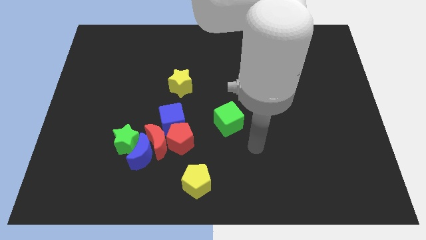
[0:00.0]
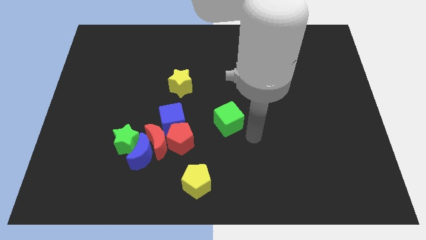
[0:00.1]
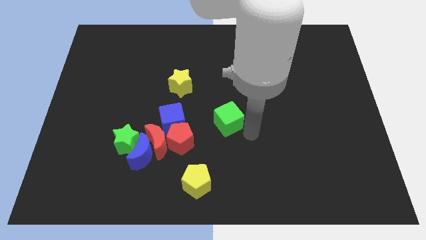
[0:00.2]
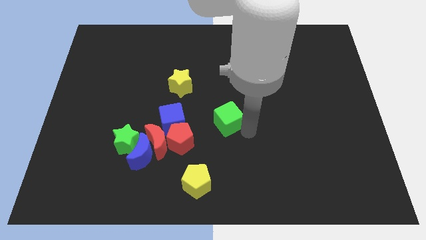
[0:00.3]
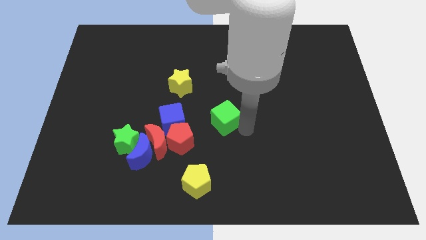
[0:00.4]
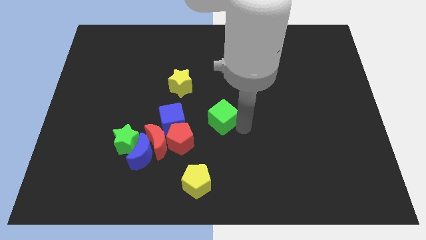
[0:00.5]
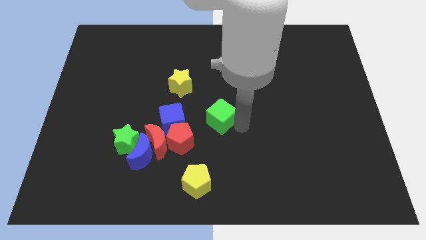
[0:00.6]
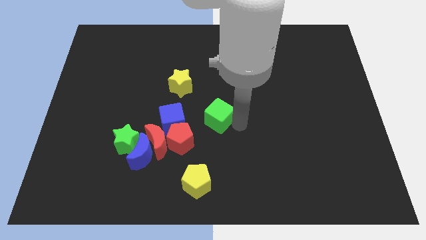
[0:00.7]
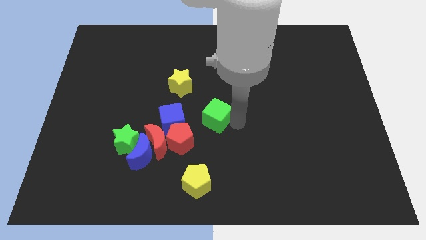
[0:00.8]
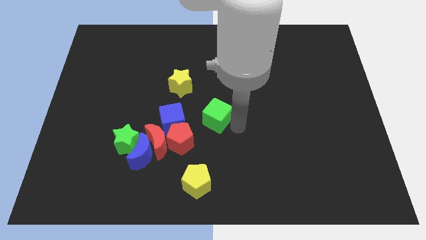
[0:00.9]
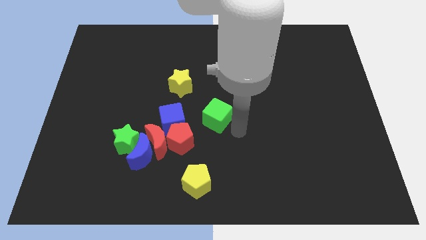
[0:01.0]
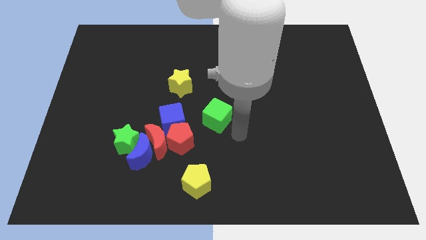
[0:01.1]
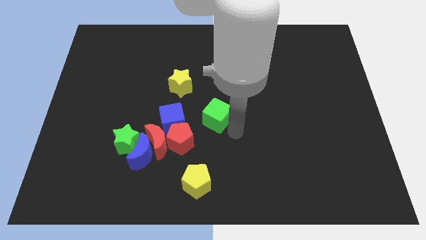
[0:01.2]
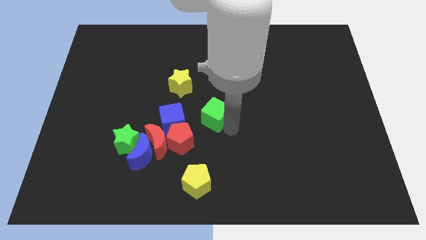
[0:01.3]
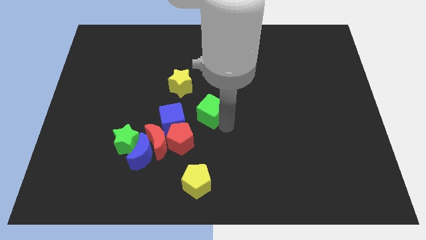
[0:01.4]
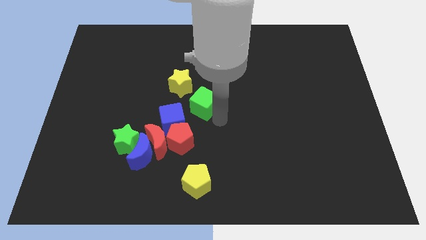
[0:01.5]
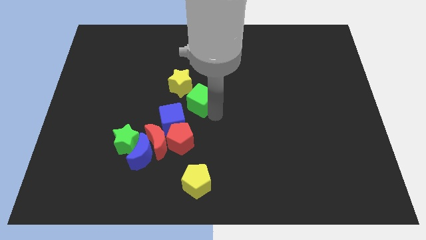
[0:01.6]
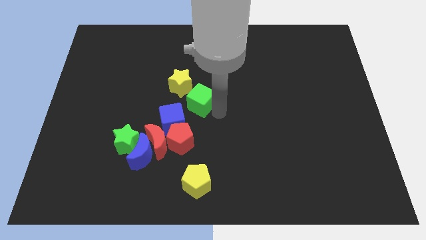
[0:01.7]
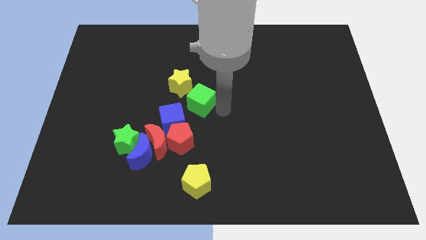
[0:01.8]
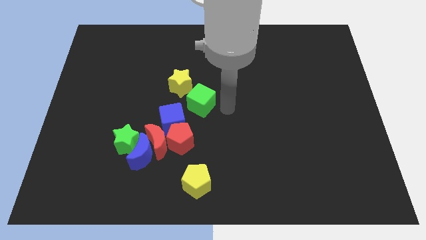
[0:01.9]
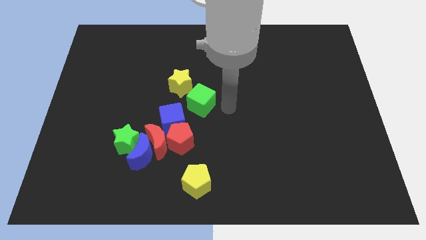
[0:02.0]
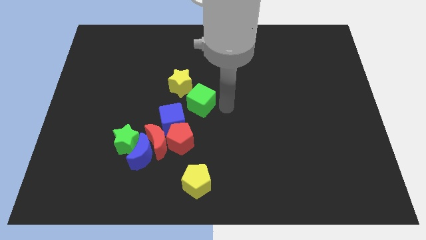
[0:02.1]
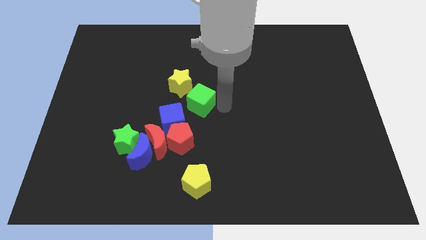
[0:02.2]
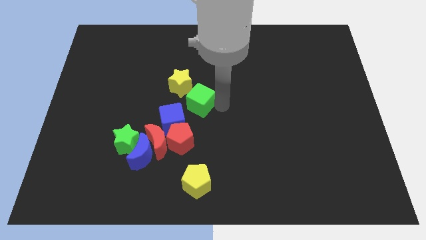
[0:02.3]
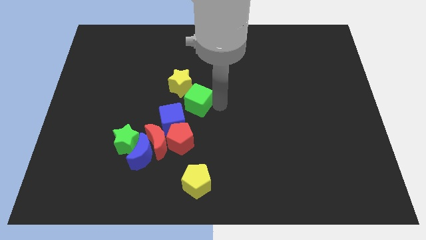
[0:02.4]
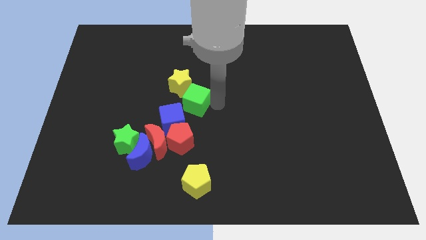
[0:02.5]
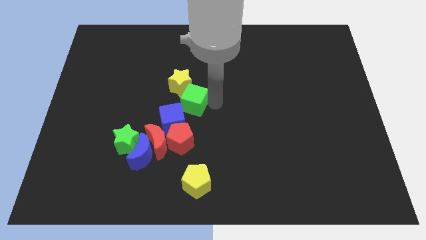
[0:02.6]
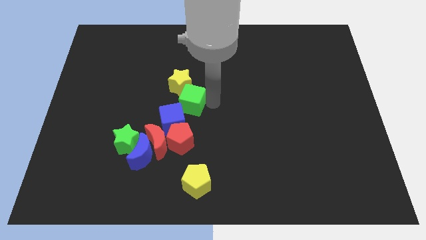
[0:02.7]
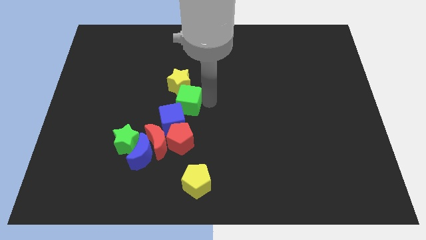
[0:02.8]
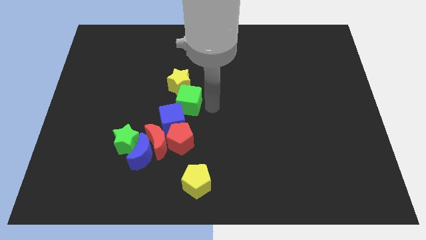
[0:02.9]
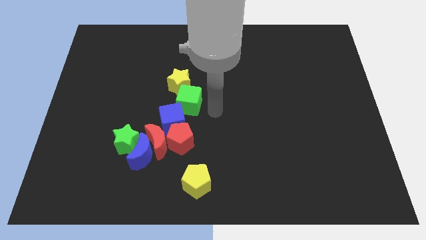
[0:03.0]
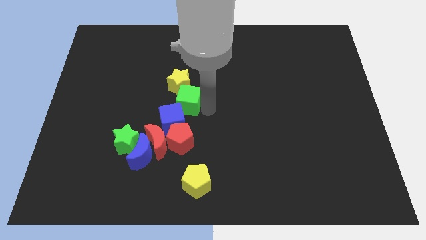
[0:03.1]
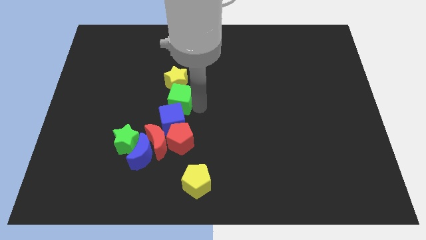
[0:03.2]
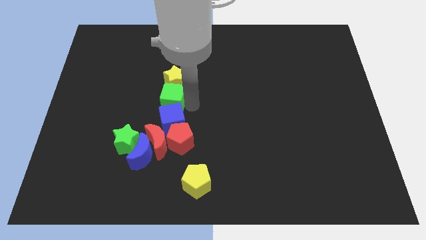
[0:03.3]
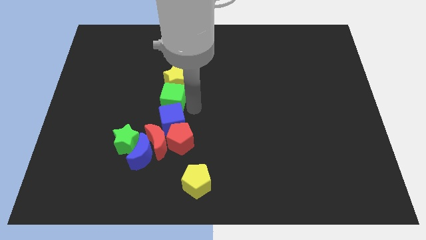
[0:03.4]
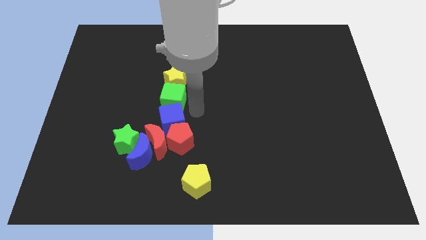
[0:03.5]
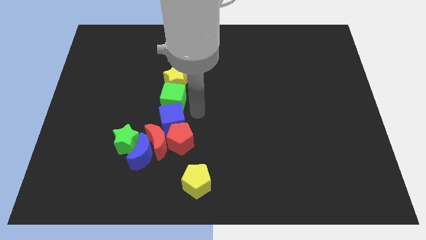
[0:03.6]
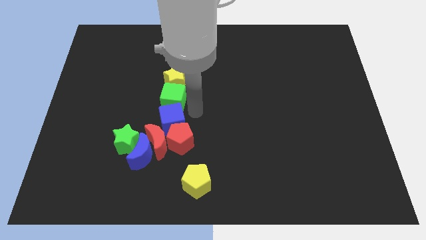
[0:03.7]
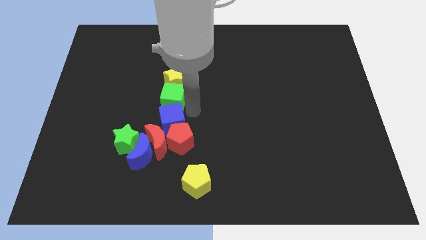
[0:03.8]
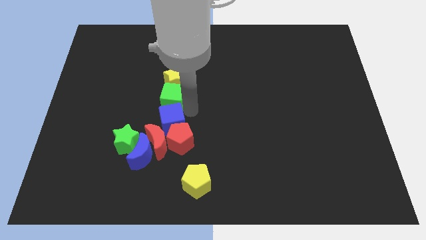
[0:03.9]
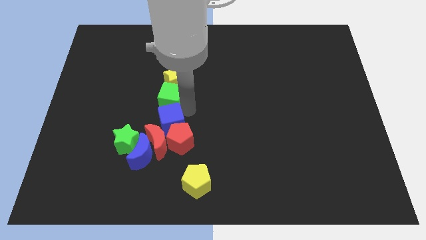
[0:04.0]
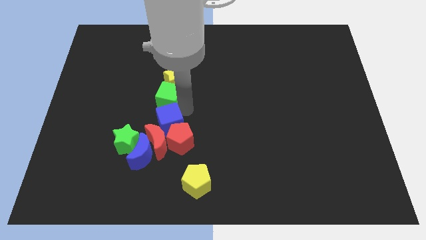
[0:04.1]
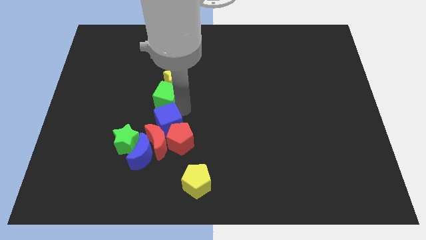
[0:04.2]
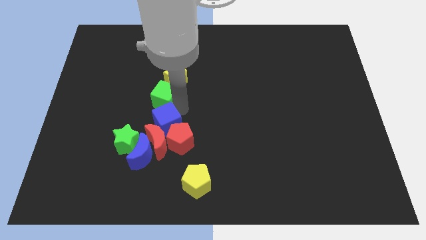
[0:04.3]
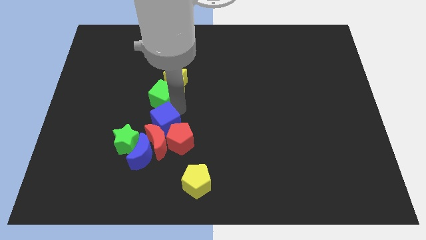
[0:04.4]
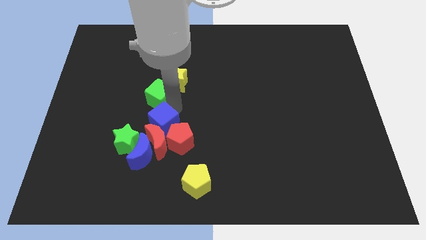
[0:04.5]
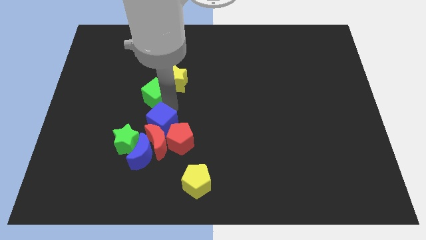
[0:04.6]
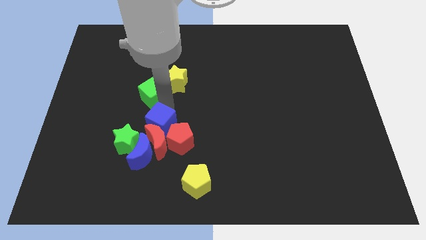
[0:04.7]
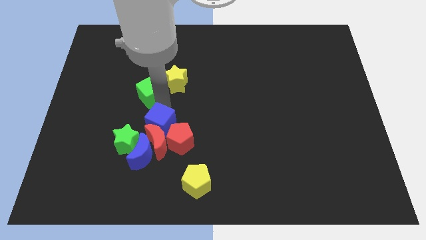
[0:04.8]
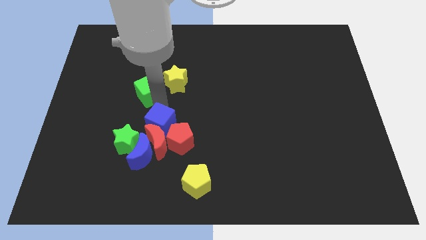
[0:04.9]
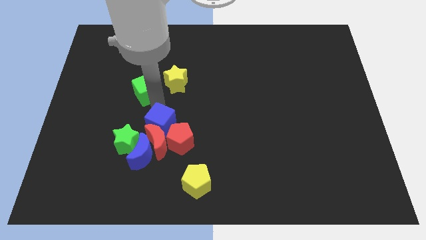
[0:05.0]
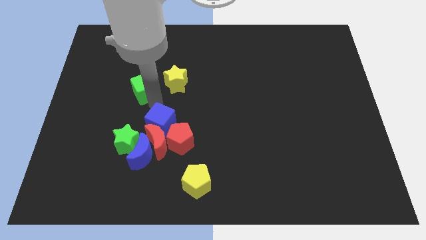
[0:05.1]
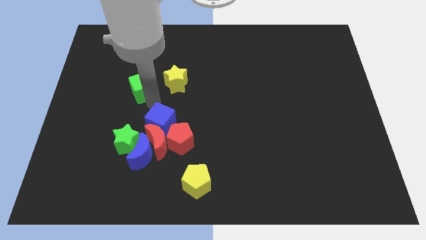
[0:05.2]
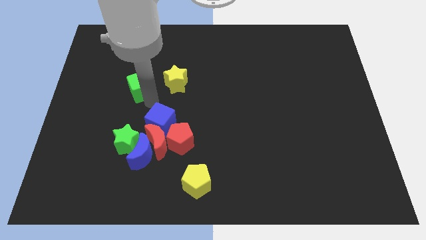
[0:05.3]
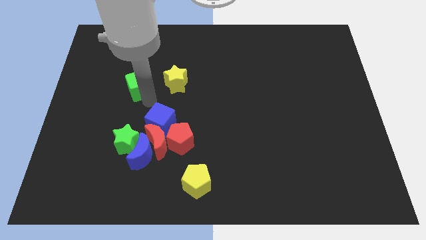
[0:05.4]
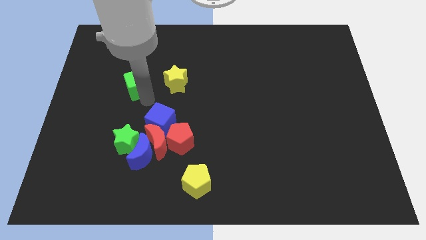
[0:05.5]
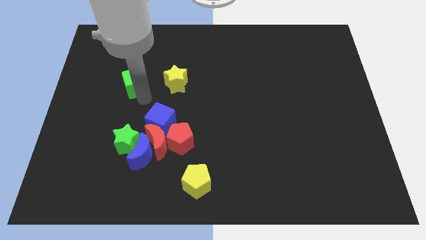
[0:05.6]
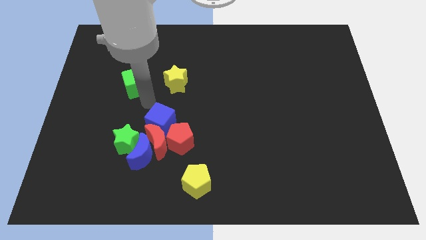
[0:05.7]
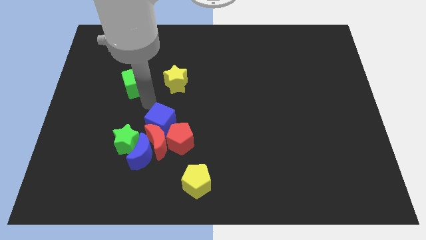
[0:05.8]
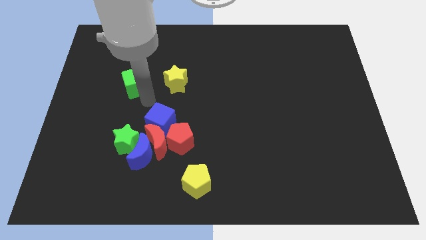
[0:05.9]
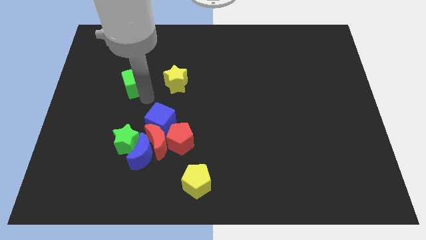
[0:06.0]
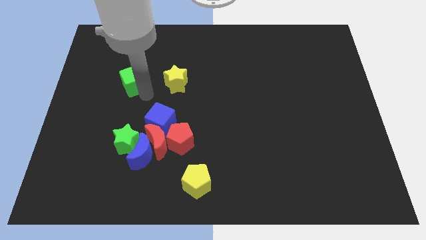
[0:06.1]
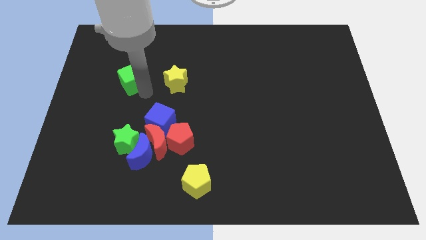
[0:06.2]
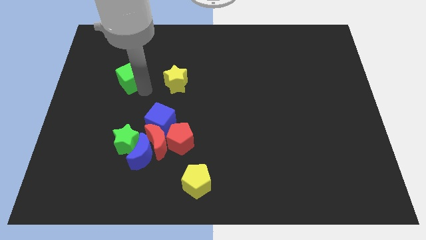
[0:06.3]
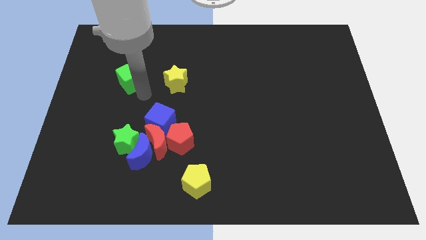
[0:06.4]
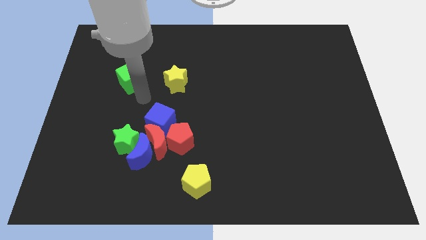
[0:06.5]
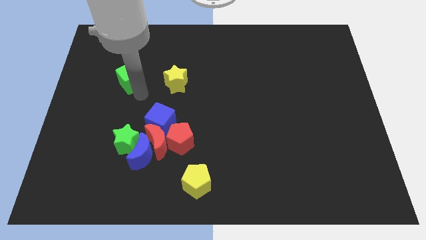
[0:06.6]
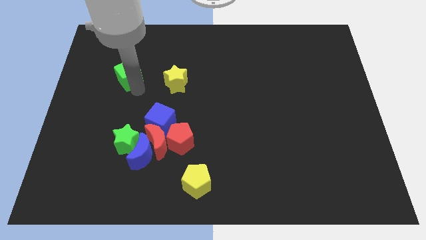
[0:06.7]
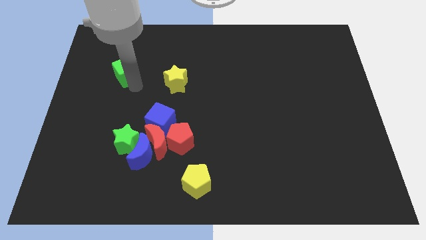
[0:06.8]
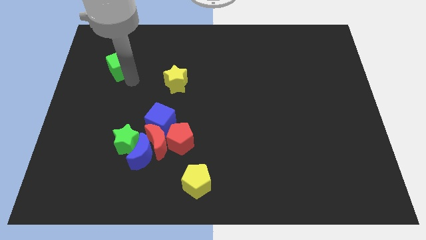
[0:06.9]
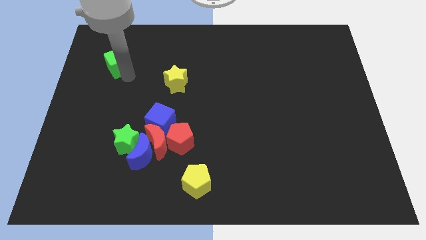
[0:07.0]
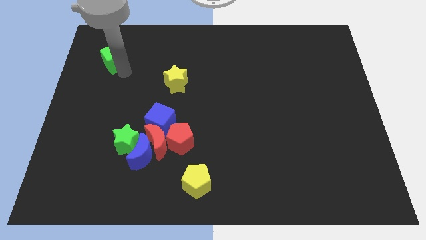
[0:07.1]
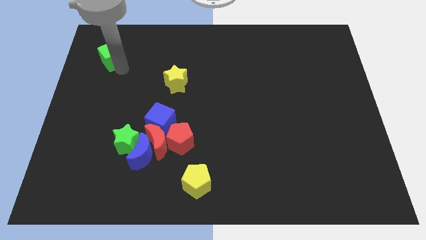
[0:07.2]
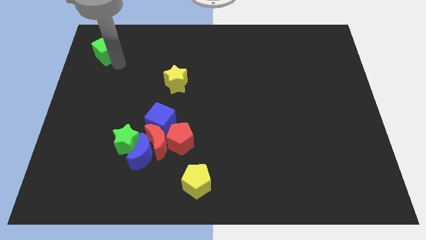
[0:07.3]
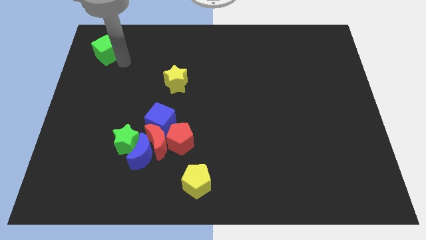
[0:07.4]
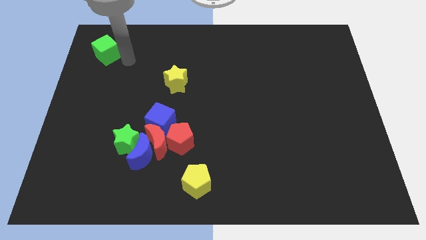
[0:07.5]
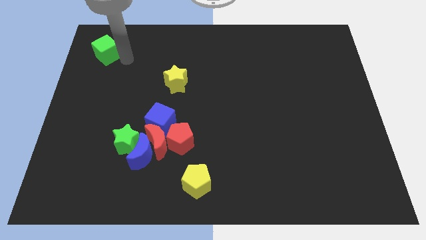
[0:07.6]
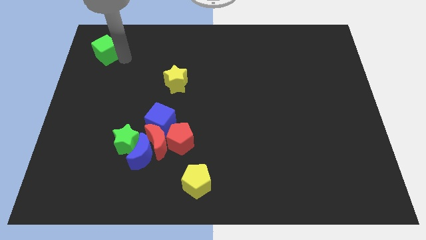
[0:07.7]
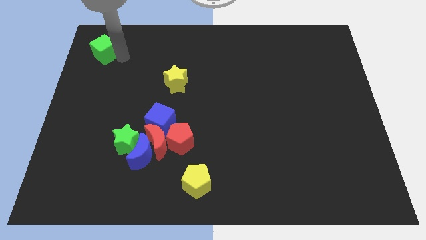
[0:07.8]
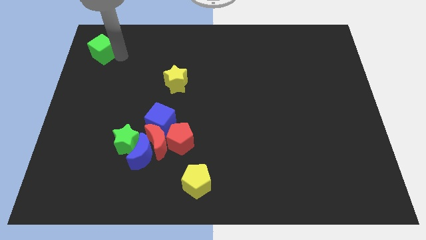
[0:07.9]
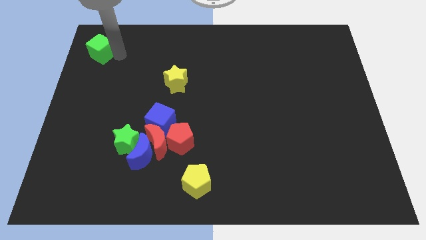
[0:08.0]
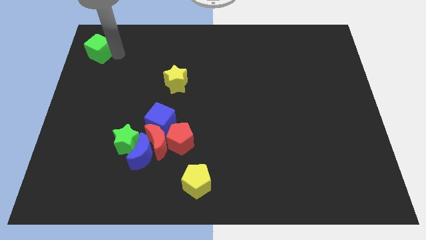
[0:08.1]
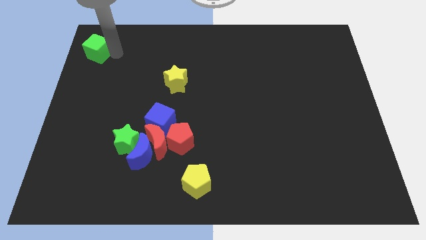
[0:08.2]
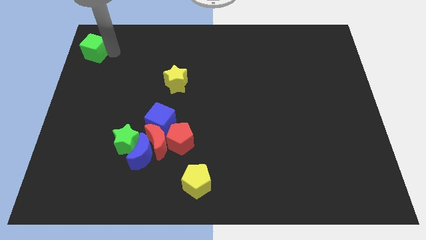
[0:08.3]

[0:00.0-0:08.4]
move the green cube to the top left corner
